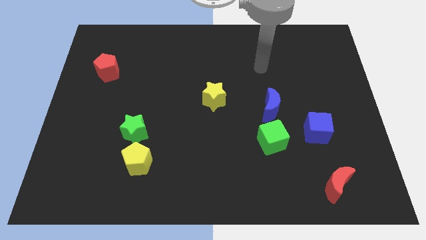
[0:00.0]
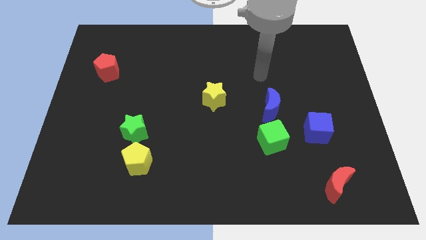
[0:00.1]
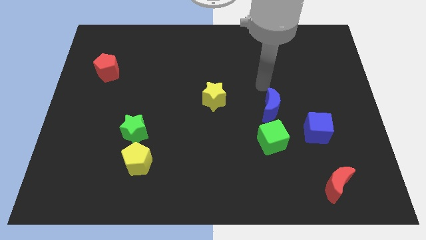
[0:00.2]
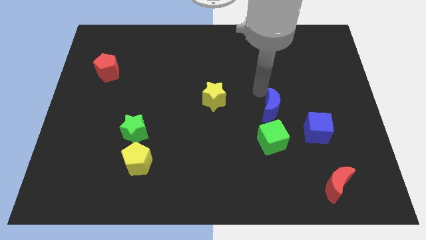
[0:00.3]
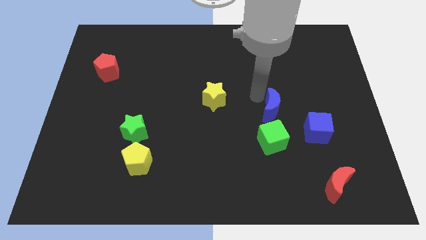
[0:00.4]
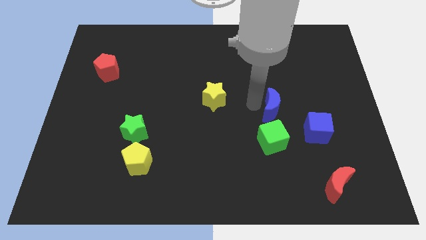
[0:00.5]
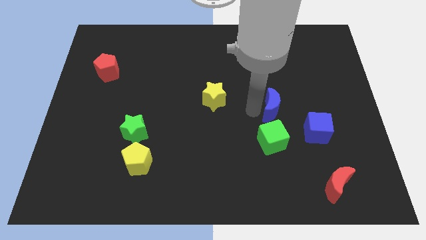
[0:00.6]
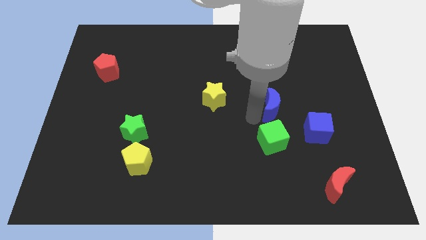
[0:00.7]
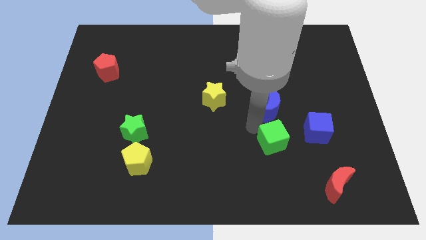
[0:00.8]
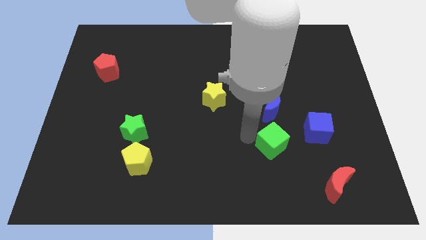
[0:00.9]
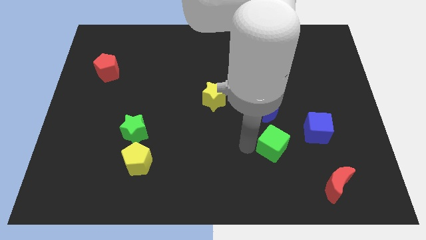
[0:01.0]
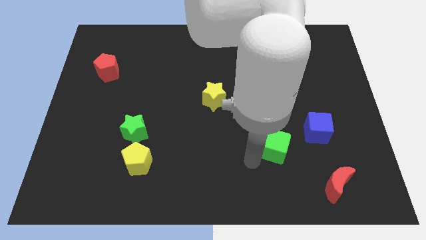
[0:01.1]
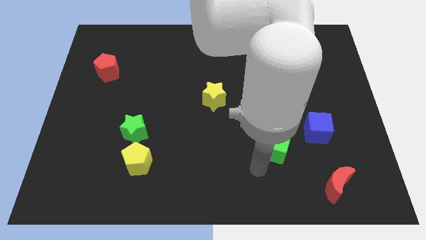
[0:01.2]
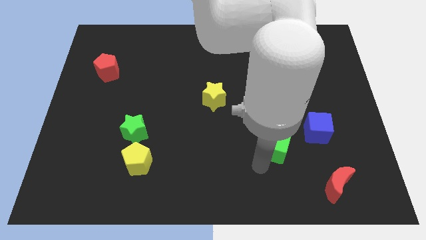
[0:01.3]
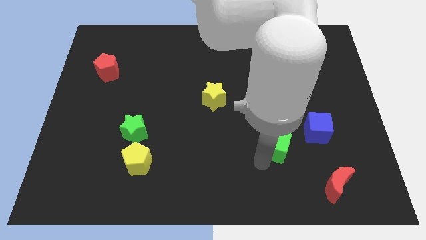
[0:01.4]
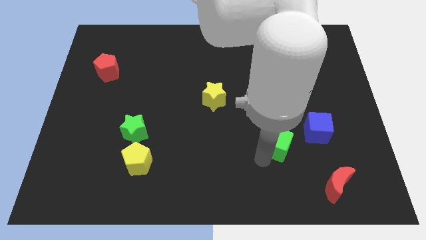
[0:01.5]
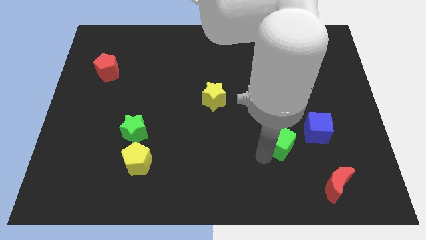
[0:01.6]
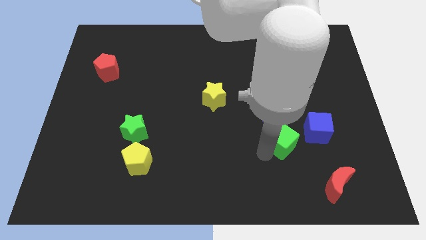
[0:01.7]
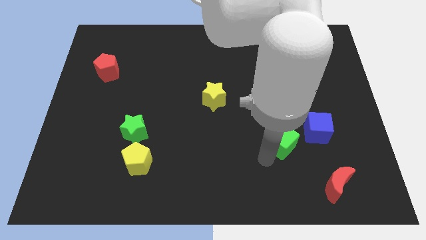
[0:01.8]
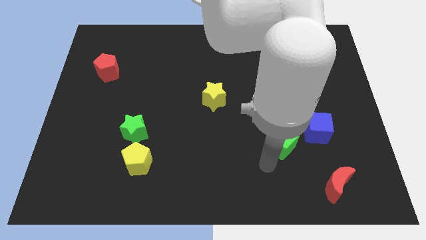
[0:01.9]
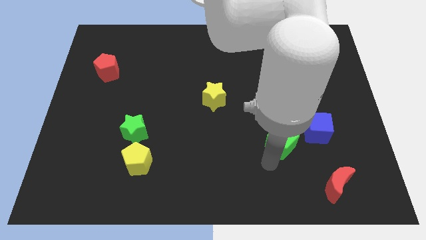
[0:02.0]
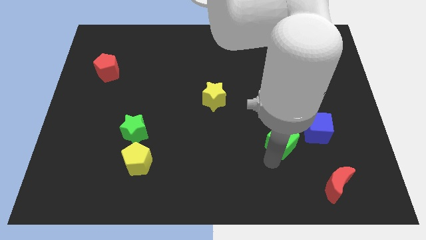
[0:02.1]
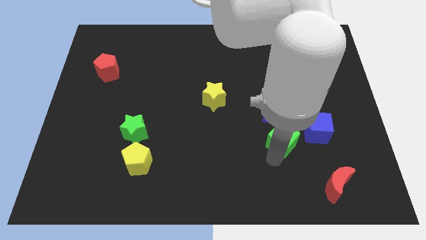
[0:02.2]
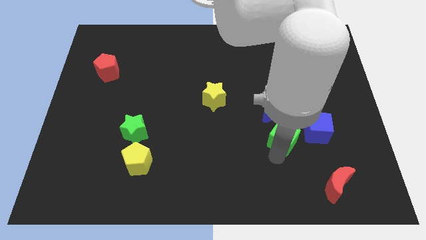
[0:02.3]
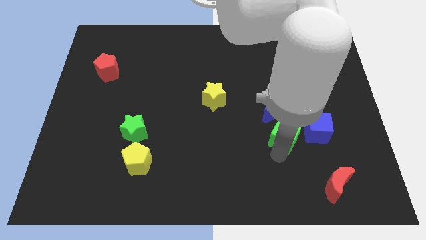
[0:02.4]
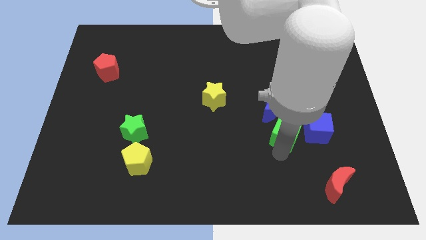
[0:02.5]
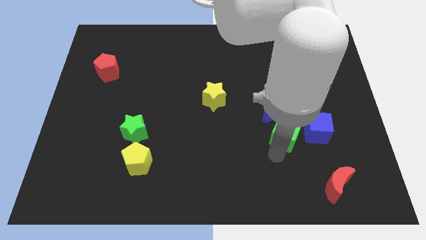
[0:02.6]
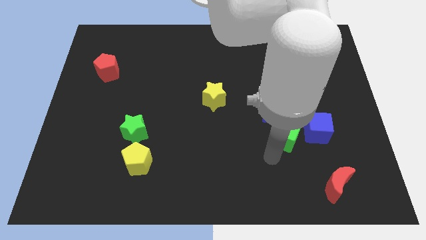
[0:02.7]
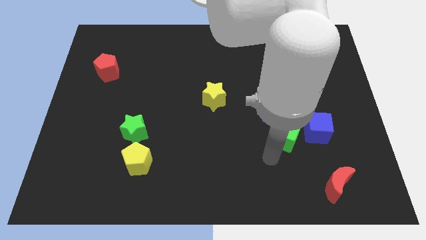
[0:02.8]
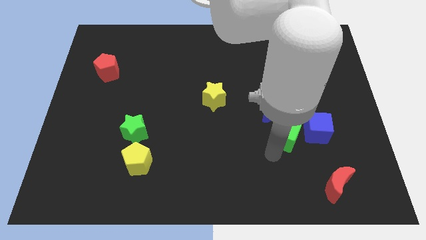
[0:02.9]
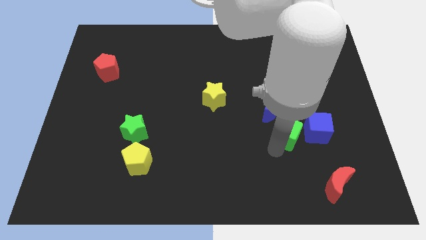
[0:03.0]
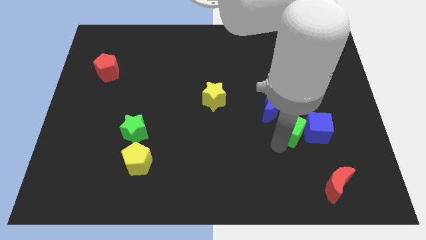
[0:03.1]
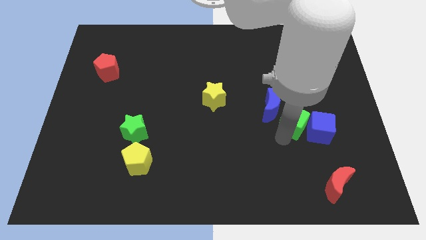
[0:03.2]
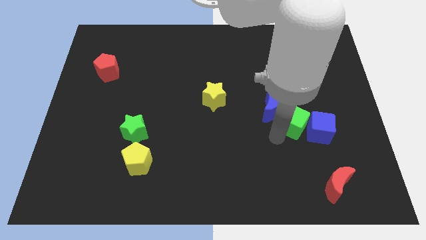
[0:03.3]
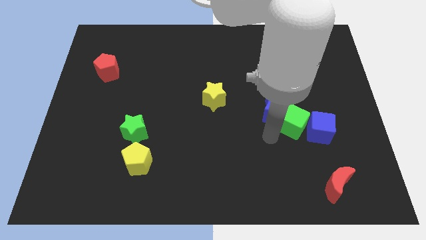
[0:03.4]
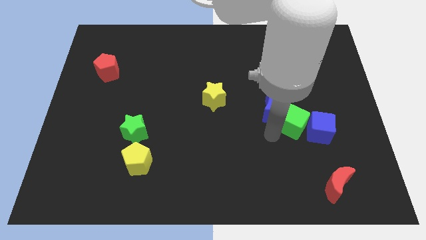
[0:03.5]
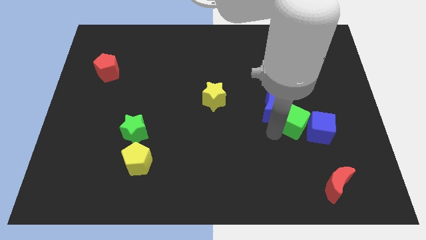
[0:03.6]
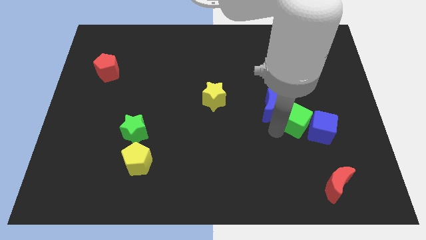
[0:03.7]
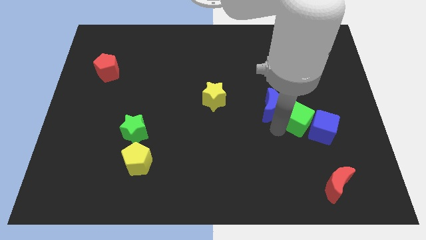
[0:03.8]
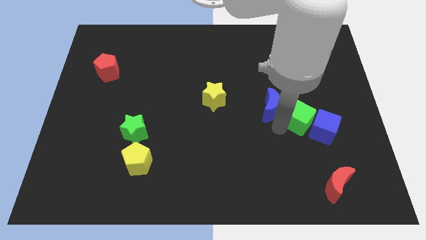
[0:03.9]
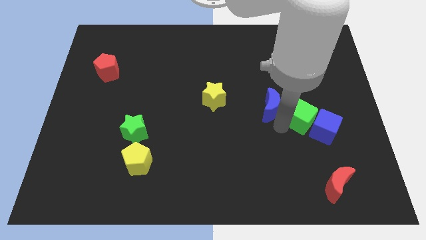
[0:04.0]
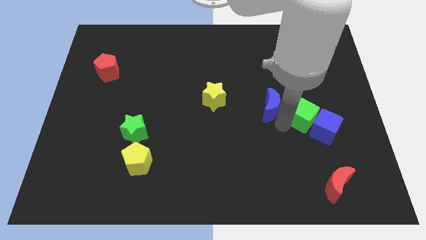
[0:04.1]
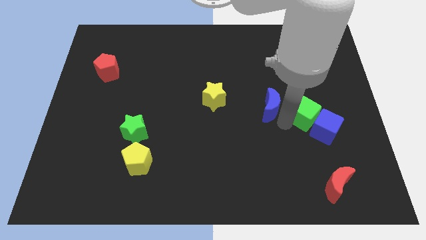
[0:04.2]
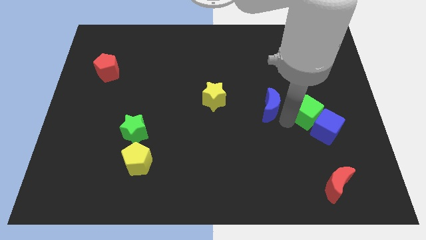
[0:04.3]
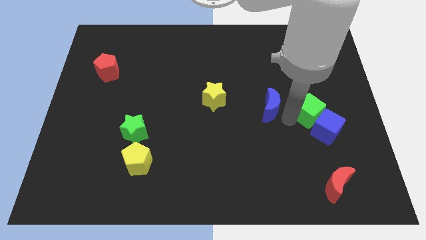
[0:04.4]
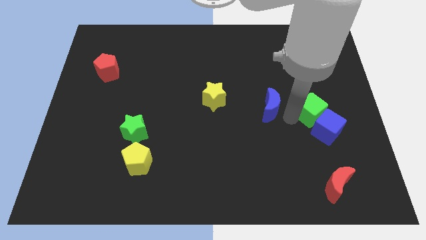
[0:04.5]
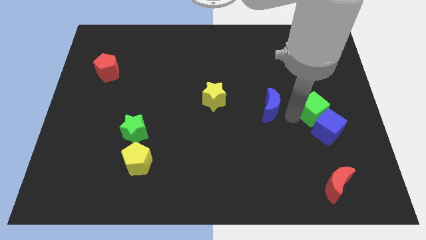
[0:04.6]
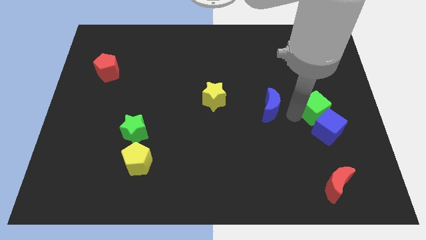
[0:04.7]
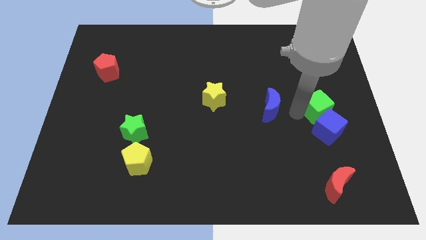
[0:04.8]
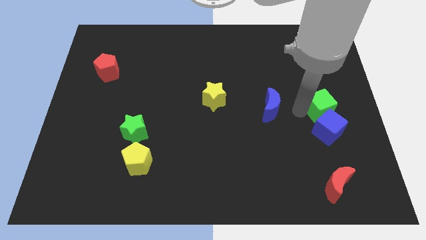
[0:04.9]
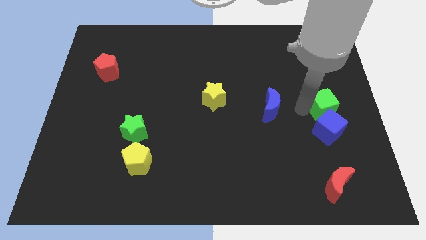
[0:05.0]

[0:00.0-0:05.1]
move the green cube to the center right

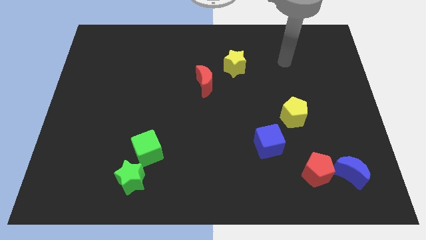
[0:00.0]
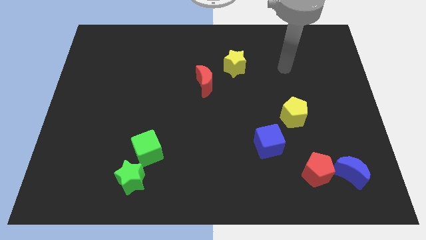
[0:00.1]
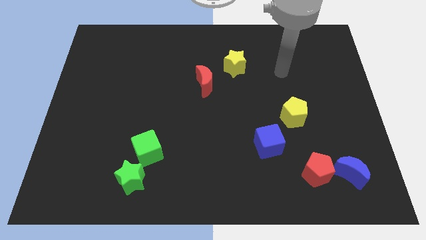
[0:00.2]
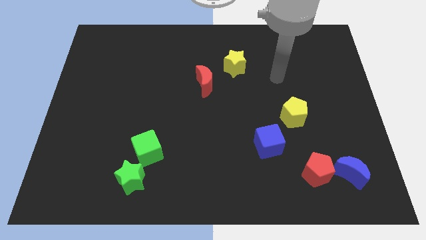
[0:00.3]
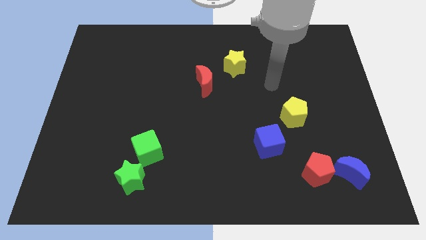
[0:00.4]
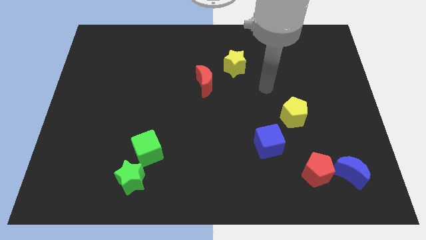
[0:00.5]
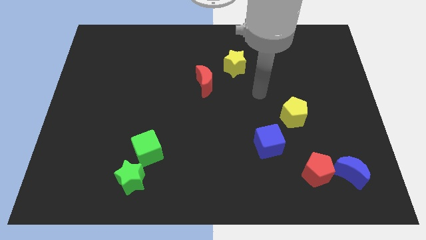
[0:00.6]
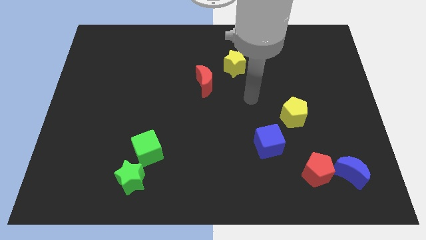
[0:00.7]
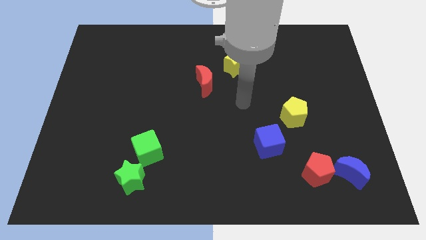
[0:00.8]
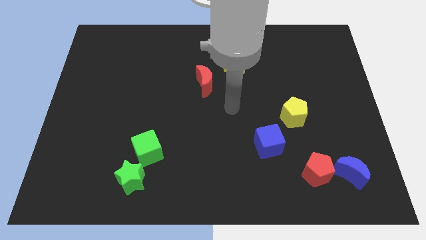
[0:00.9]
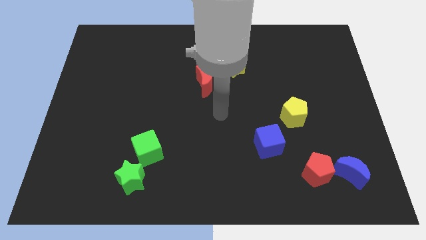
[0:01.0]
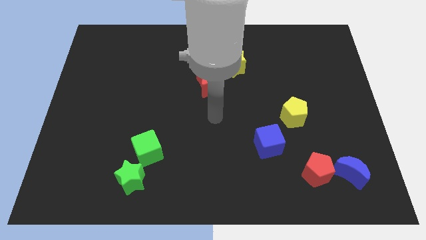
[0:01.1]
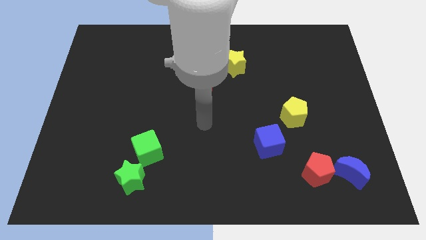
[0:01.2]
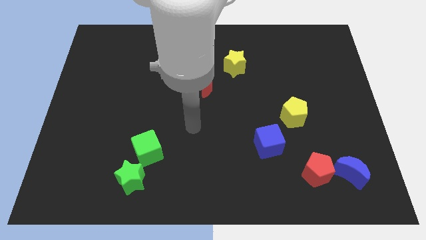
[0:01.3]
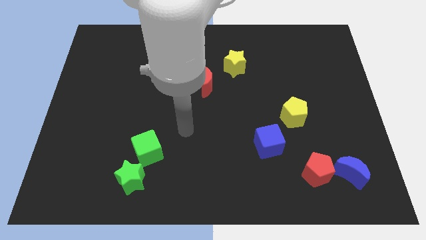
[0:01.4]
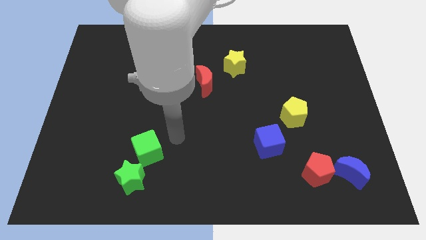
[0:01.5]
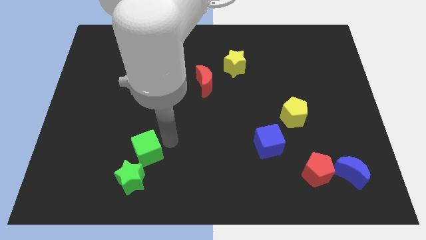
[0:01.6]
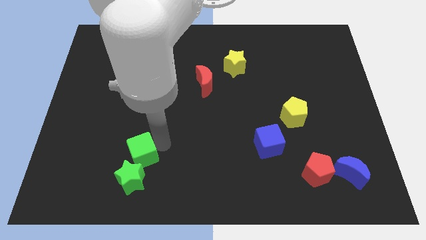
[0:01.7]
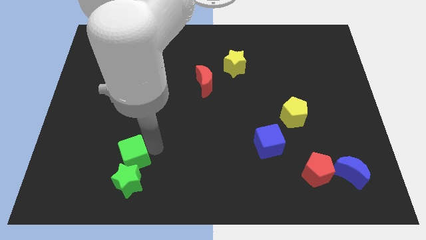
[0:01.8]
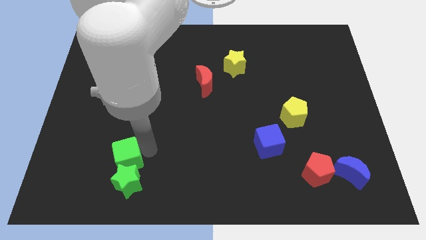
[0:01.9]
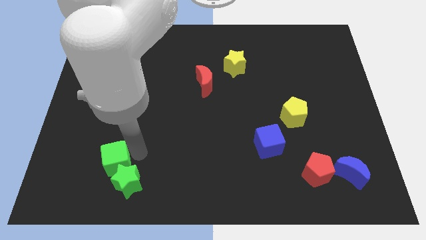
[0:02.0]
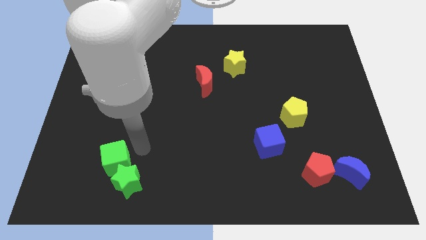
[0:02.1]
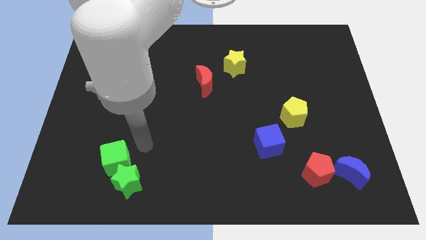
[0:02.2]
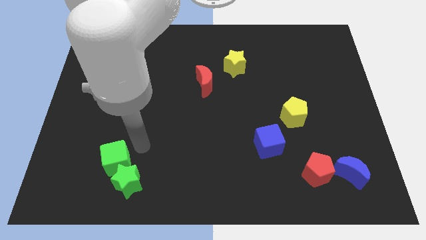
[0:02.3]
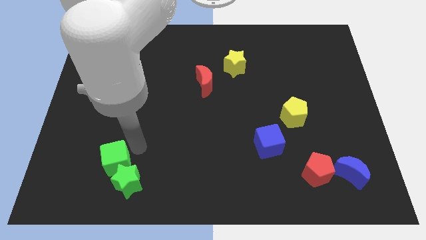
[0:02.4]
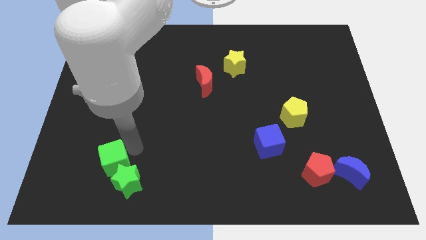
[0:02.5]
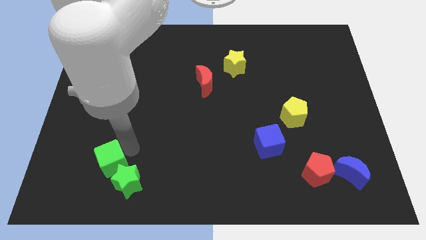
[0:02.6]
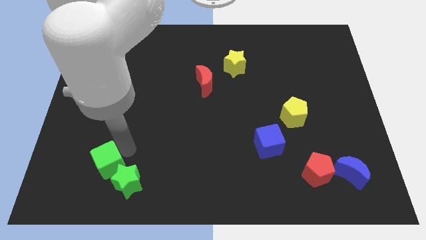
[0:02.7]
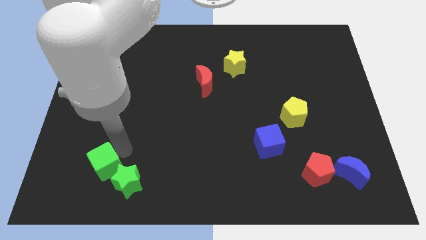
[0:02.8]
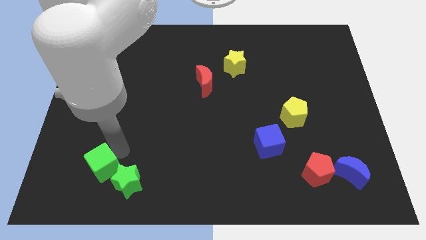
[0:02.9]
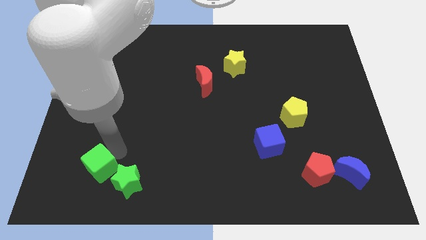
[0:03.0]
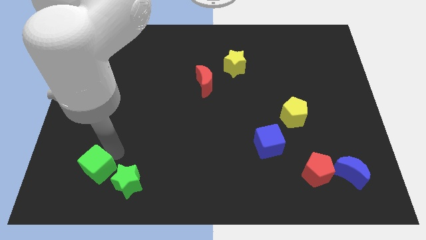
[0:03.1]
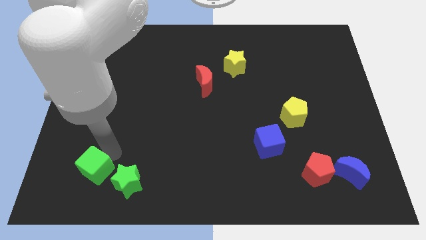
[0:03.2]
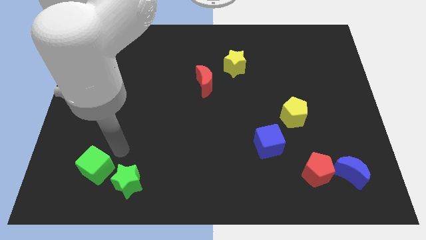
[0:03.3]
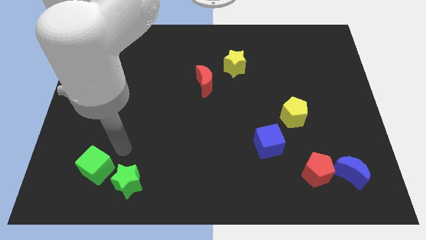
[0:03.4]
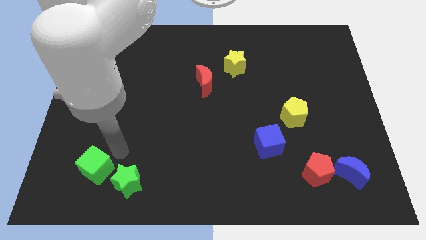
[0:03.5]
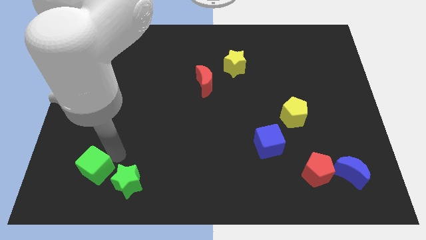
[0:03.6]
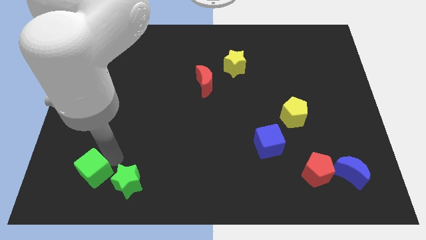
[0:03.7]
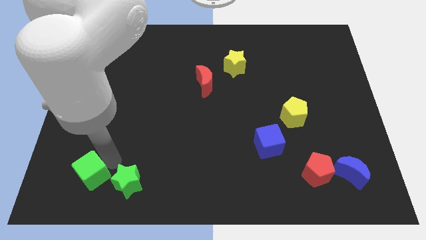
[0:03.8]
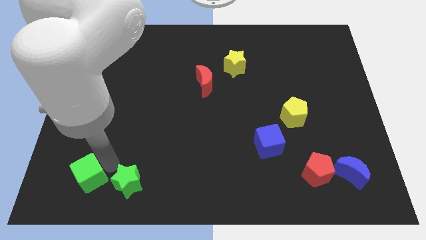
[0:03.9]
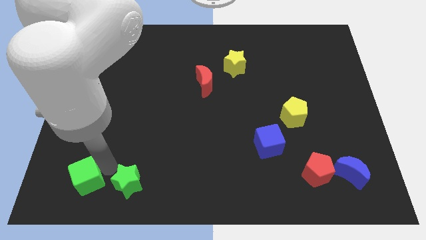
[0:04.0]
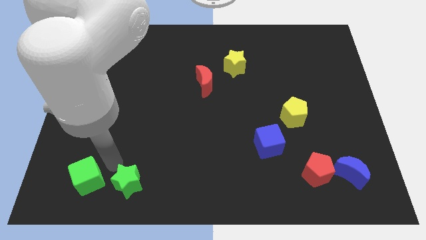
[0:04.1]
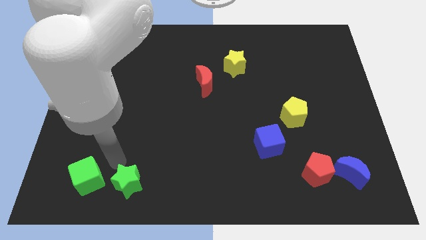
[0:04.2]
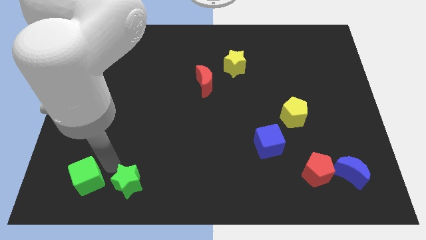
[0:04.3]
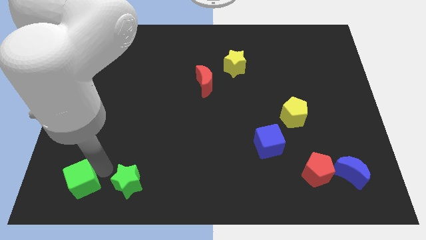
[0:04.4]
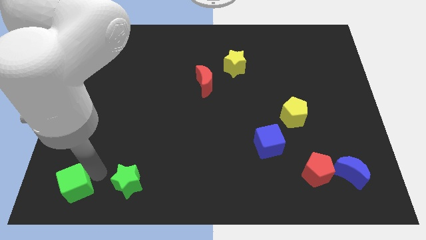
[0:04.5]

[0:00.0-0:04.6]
move the green cube to the bottom left of the board
